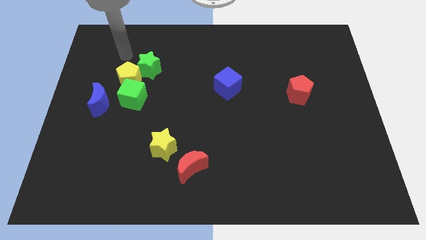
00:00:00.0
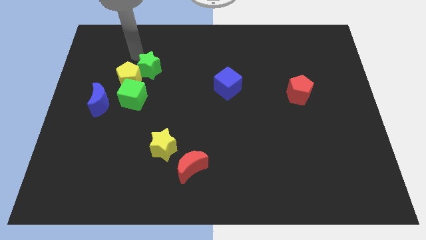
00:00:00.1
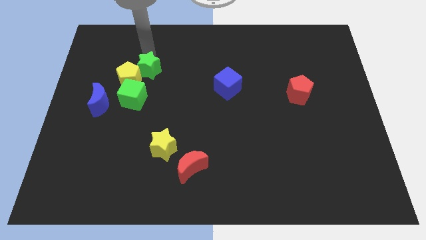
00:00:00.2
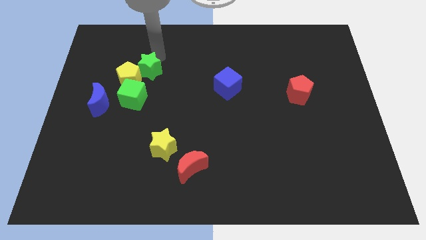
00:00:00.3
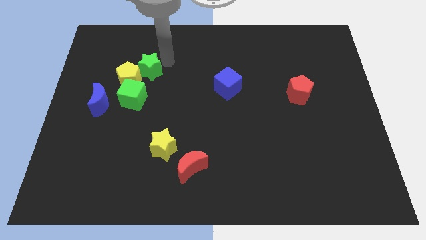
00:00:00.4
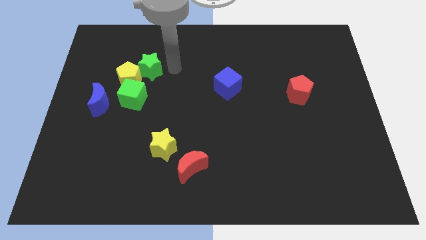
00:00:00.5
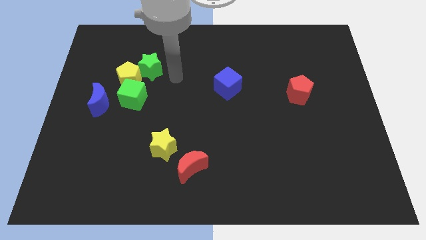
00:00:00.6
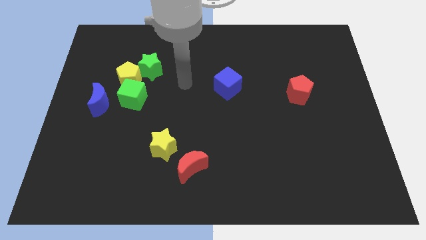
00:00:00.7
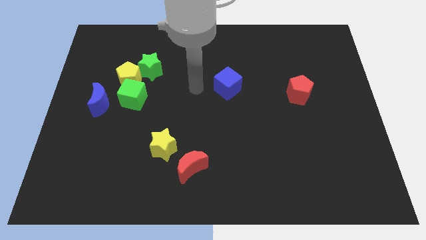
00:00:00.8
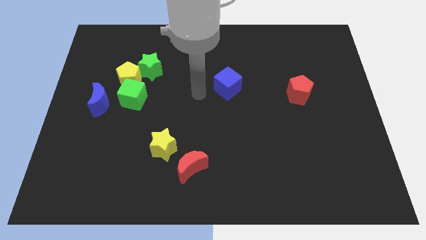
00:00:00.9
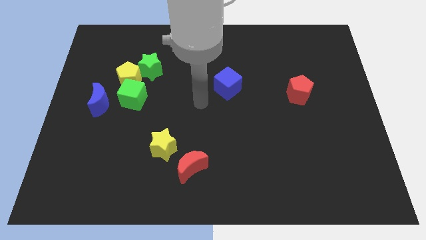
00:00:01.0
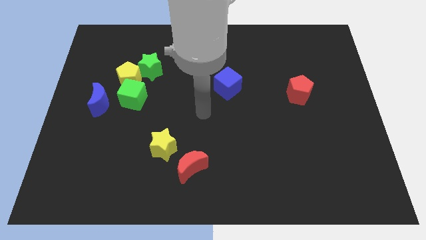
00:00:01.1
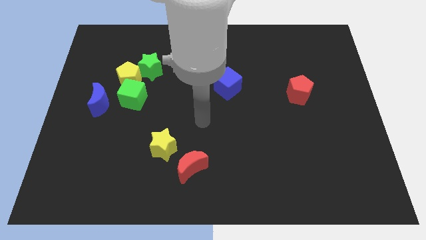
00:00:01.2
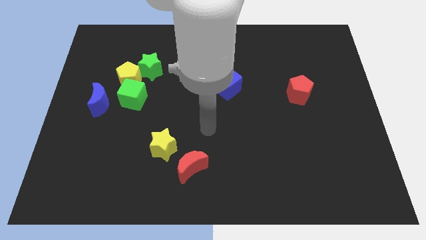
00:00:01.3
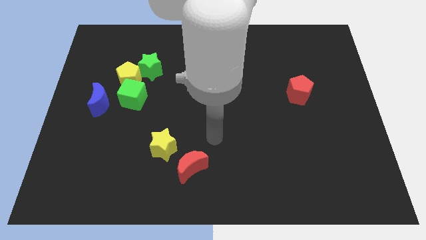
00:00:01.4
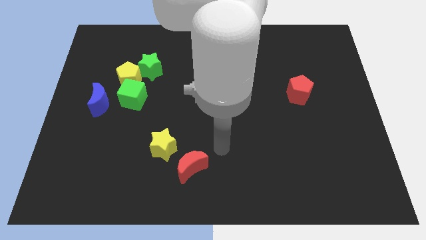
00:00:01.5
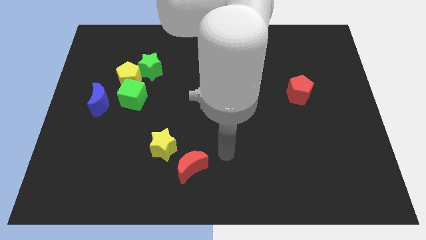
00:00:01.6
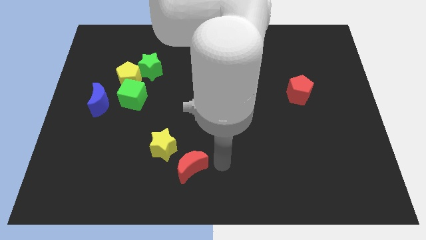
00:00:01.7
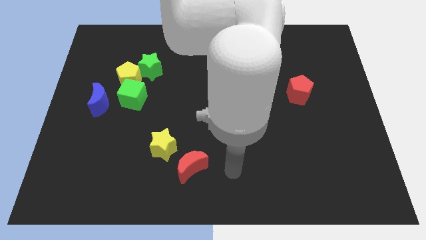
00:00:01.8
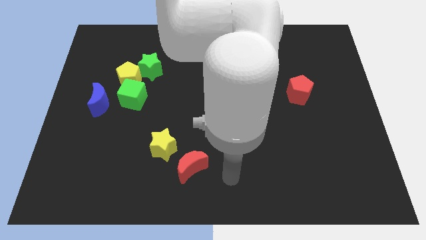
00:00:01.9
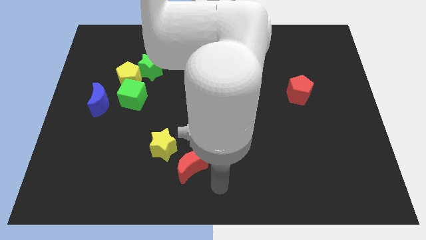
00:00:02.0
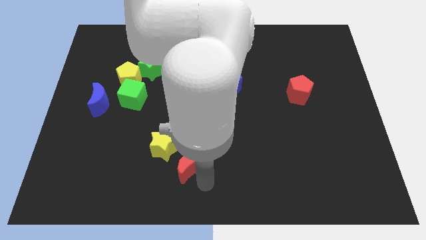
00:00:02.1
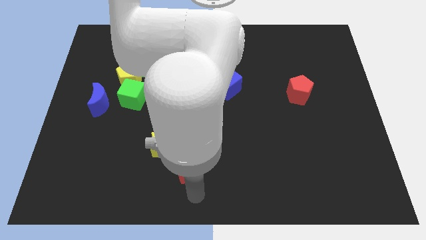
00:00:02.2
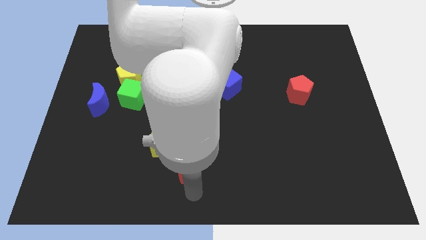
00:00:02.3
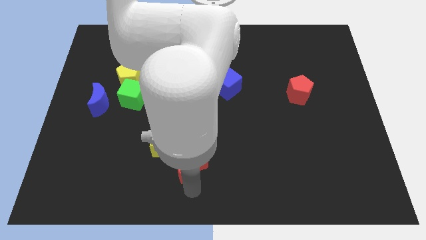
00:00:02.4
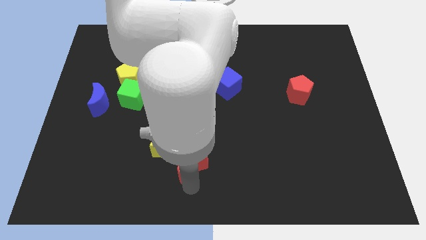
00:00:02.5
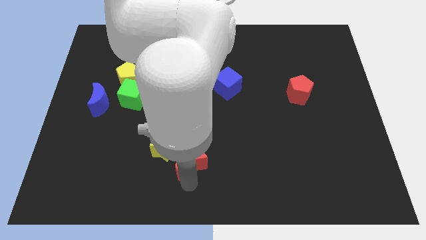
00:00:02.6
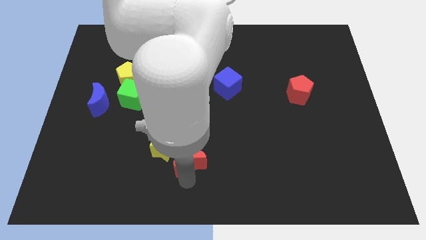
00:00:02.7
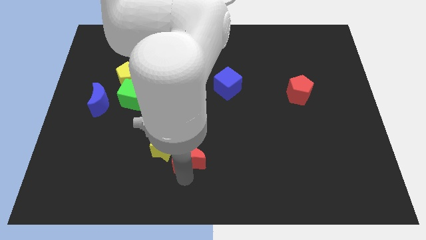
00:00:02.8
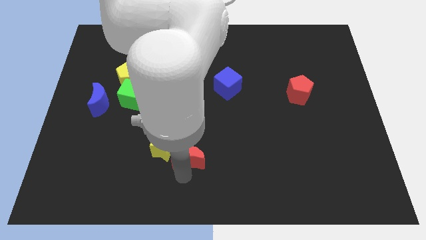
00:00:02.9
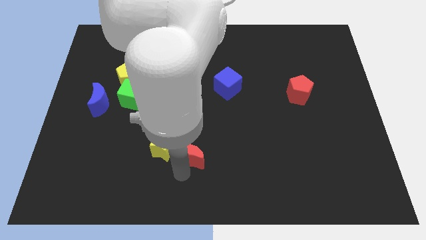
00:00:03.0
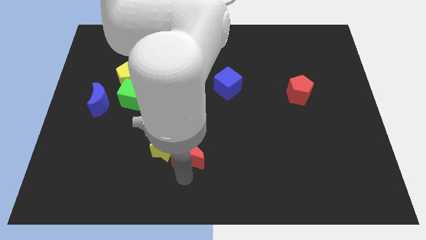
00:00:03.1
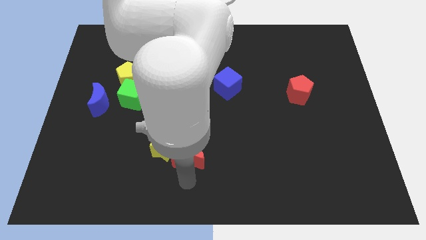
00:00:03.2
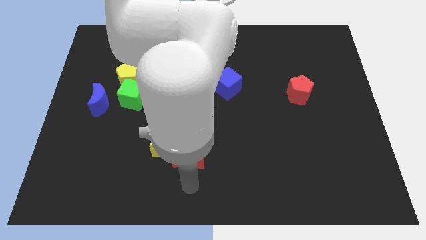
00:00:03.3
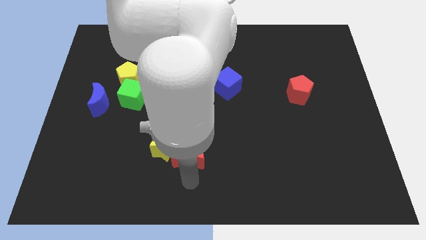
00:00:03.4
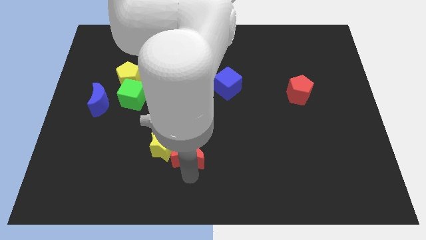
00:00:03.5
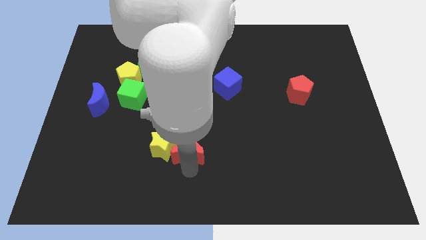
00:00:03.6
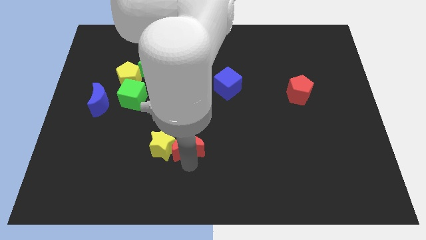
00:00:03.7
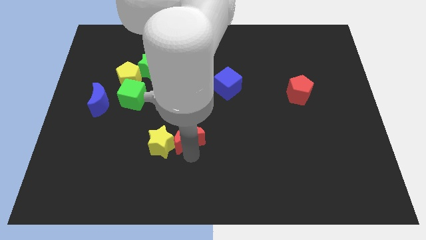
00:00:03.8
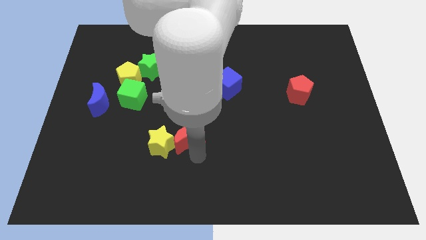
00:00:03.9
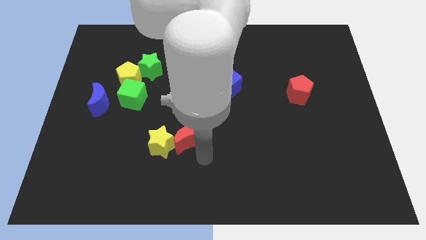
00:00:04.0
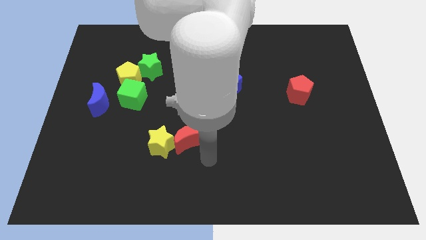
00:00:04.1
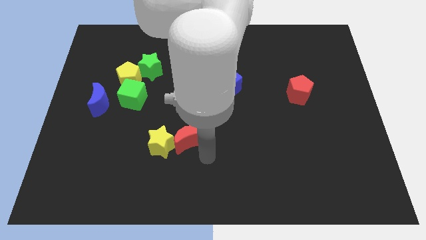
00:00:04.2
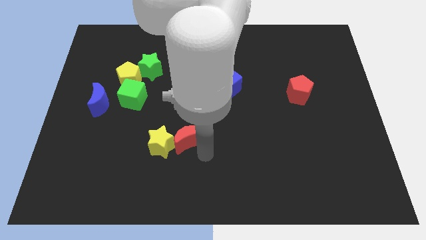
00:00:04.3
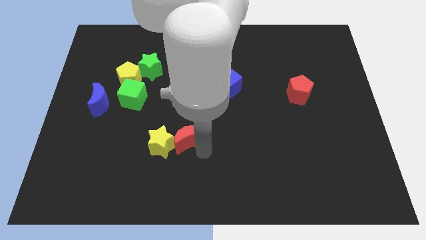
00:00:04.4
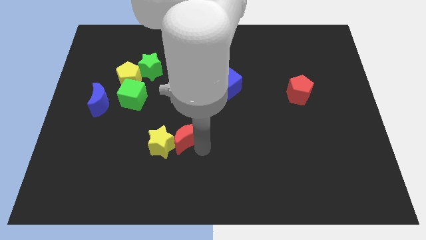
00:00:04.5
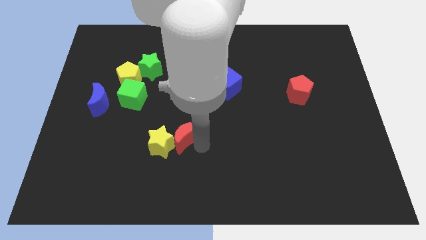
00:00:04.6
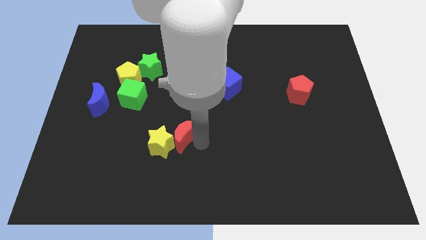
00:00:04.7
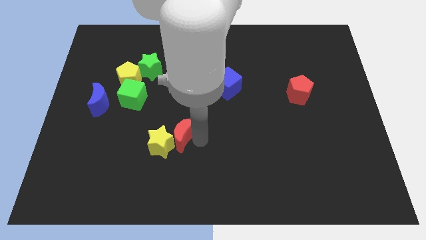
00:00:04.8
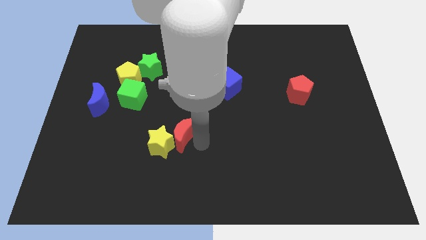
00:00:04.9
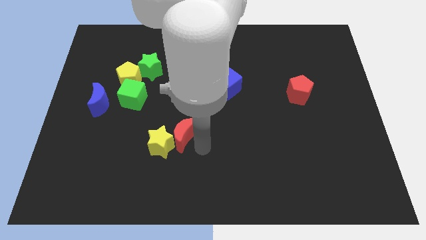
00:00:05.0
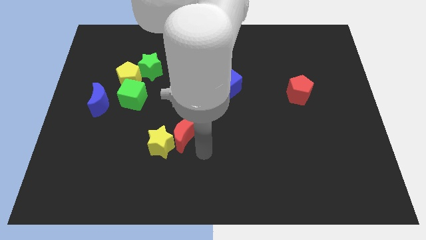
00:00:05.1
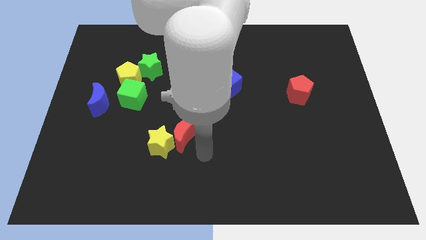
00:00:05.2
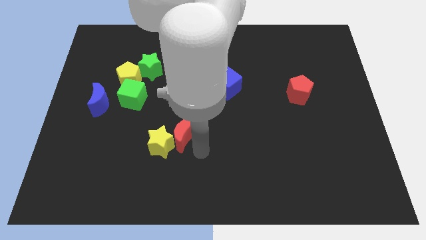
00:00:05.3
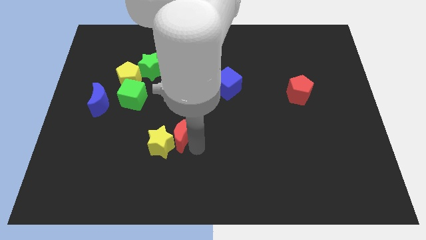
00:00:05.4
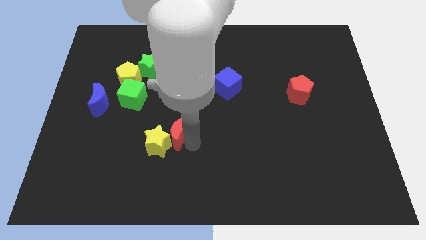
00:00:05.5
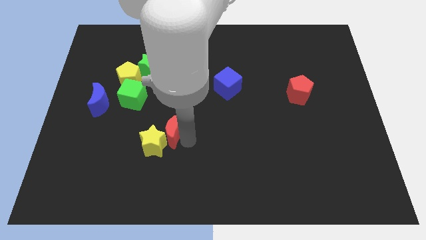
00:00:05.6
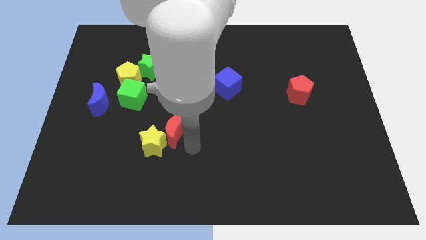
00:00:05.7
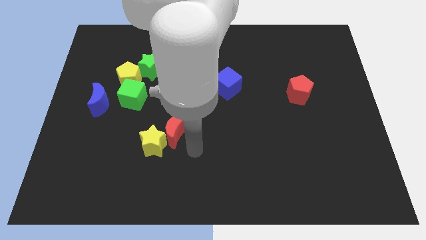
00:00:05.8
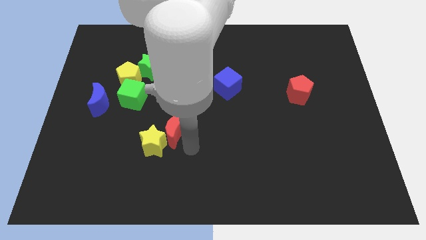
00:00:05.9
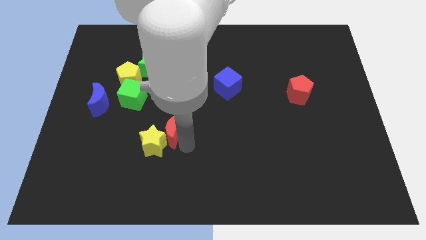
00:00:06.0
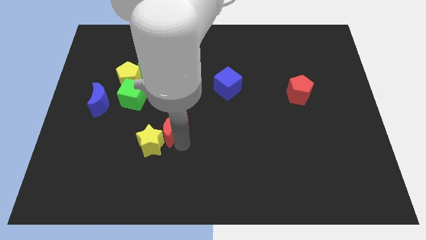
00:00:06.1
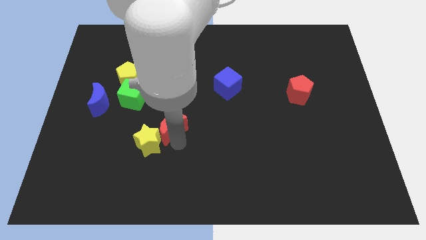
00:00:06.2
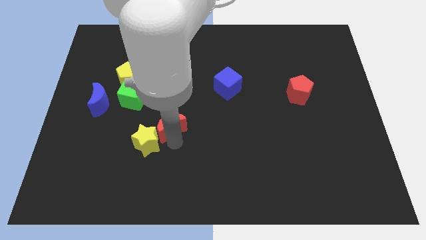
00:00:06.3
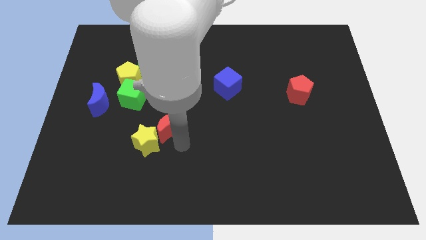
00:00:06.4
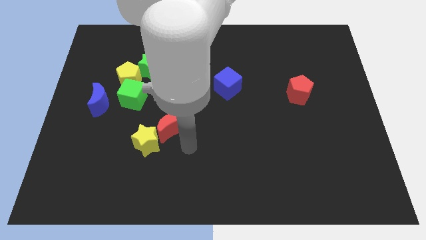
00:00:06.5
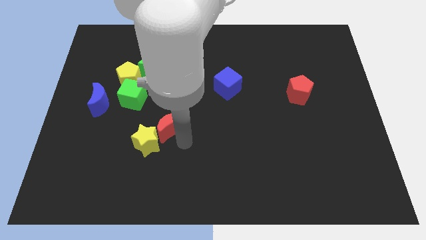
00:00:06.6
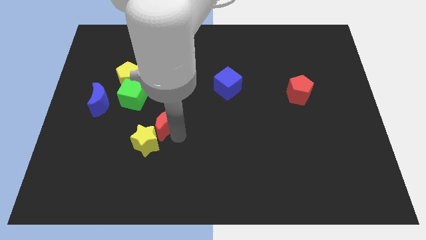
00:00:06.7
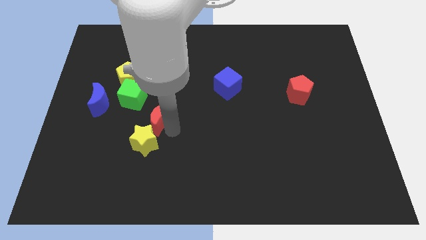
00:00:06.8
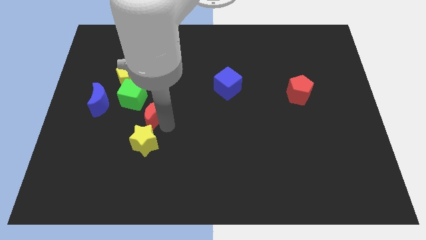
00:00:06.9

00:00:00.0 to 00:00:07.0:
move the red moon just right of the blue moon

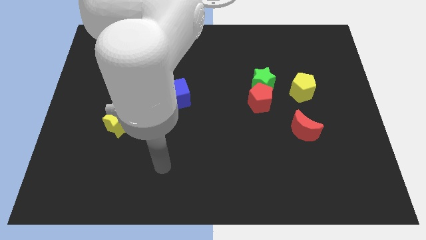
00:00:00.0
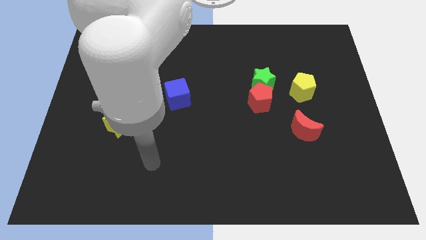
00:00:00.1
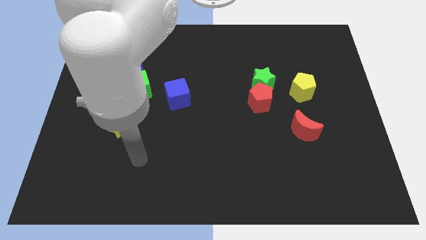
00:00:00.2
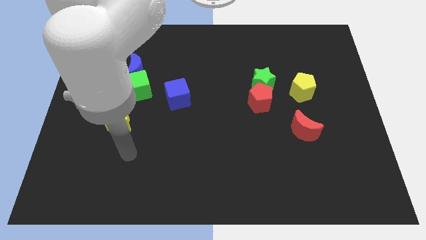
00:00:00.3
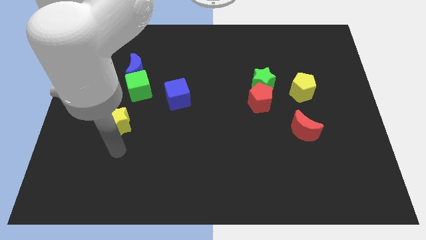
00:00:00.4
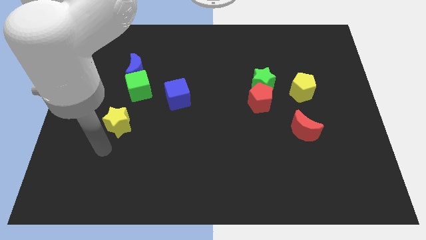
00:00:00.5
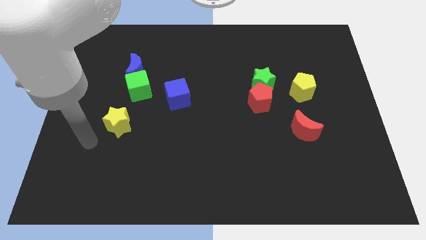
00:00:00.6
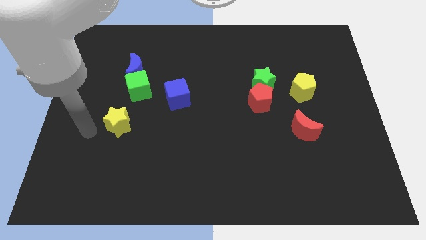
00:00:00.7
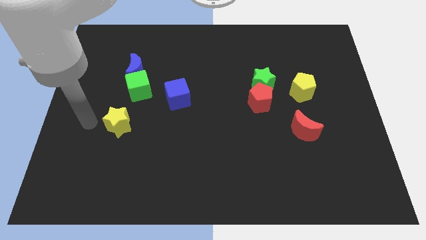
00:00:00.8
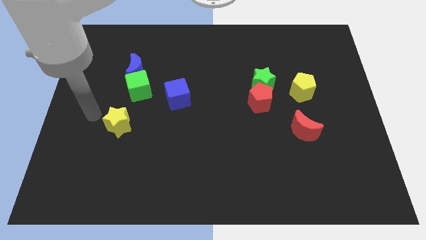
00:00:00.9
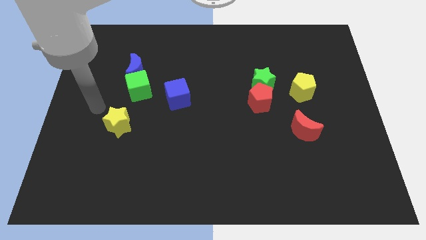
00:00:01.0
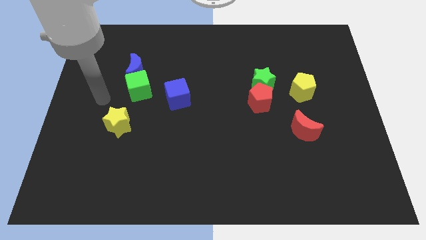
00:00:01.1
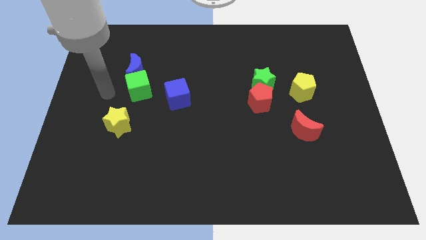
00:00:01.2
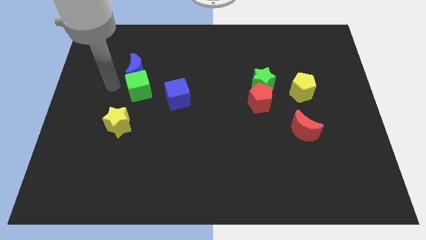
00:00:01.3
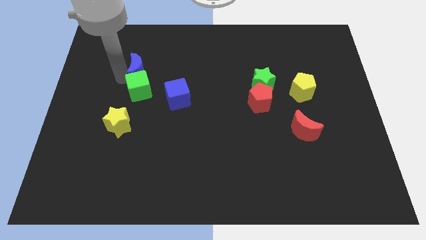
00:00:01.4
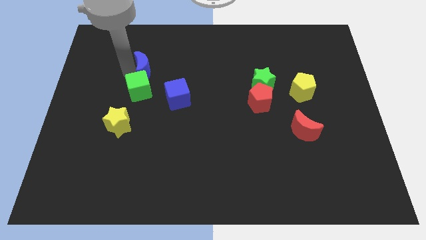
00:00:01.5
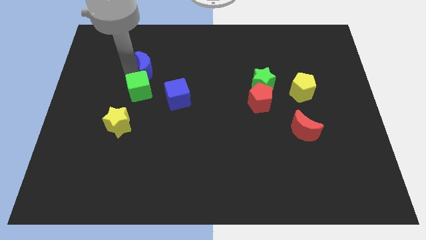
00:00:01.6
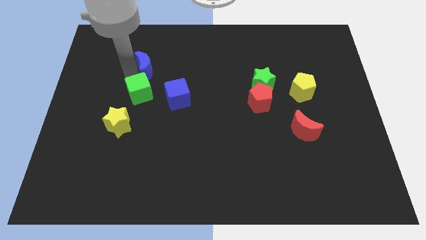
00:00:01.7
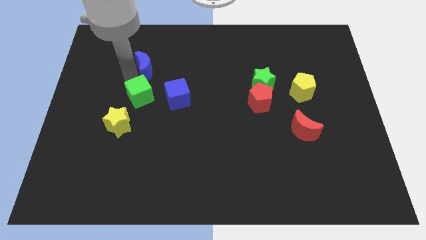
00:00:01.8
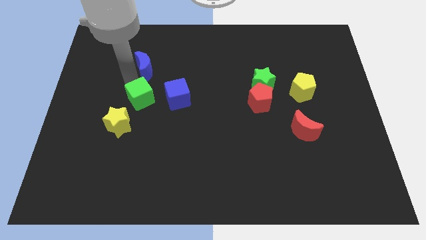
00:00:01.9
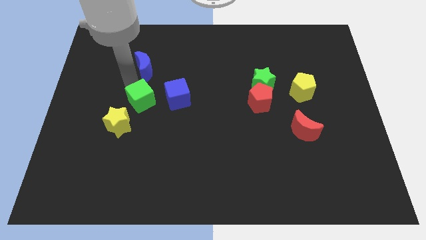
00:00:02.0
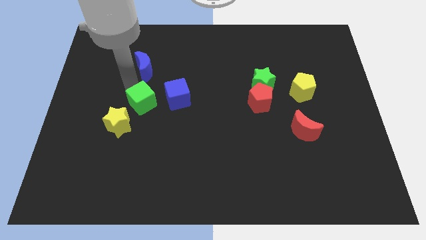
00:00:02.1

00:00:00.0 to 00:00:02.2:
put the green cube diagonally down and to the left of the blue cube
